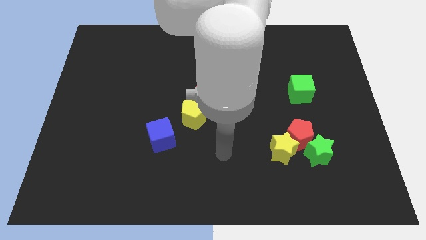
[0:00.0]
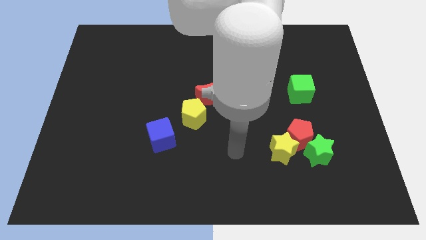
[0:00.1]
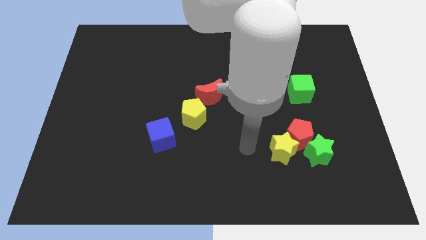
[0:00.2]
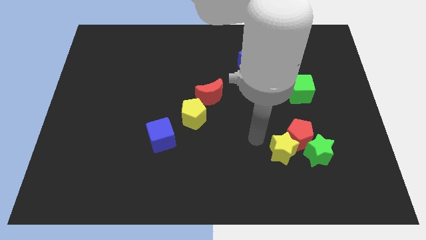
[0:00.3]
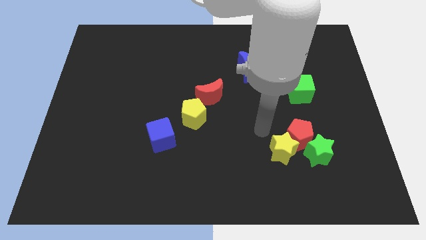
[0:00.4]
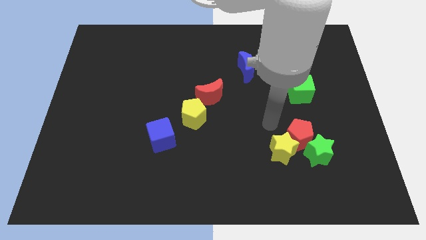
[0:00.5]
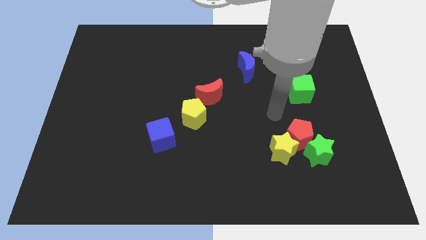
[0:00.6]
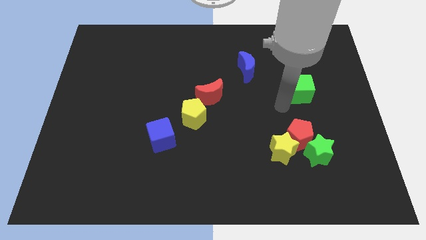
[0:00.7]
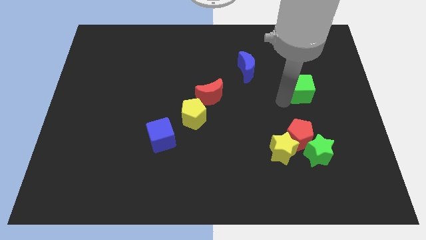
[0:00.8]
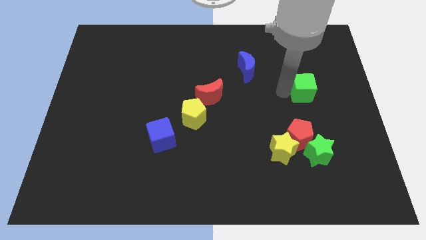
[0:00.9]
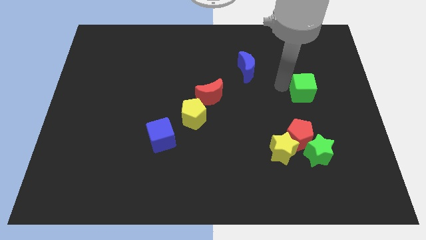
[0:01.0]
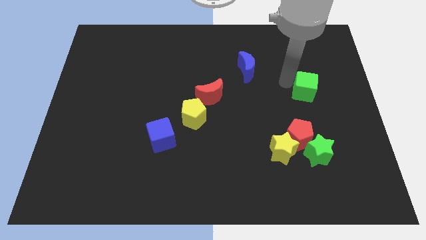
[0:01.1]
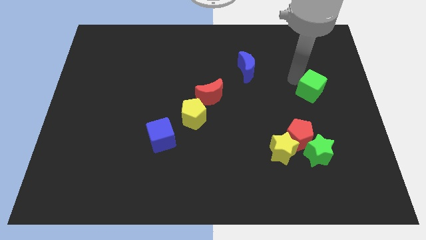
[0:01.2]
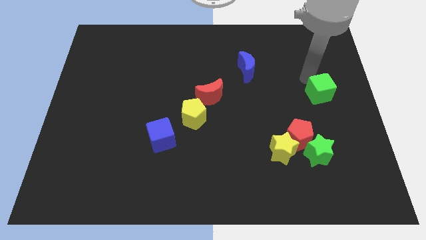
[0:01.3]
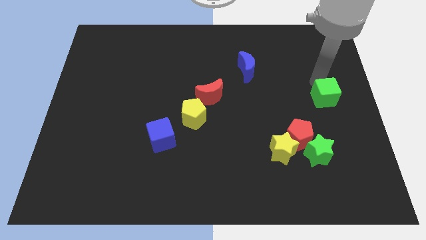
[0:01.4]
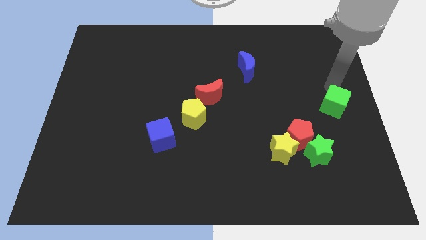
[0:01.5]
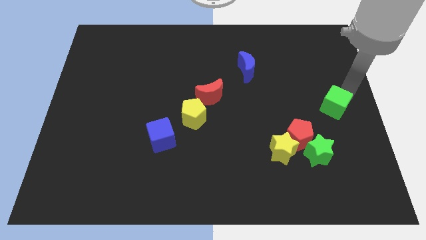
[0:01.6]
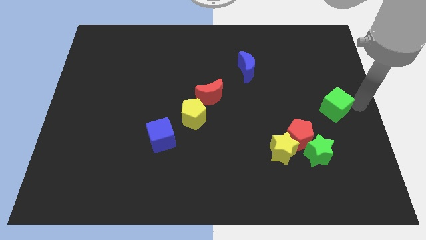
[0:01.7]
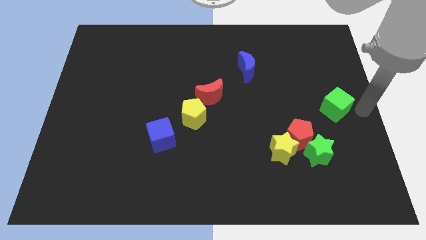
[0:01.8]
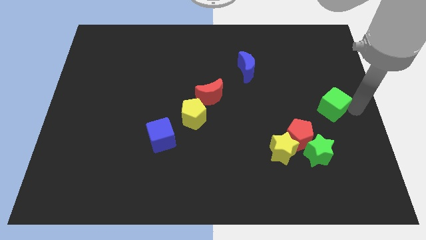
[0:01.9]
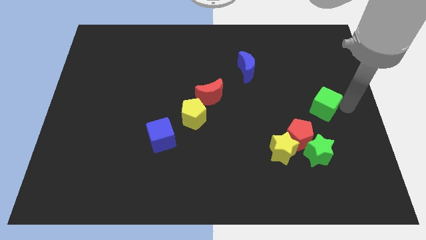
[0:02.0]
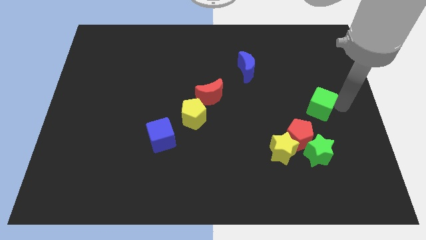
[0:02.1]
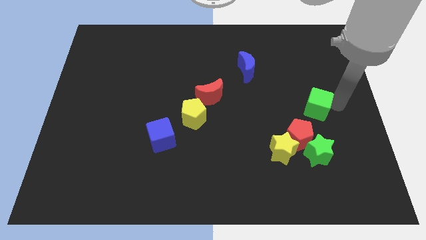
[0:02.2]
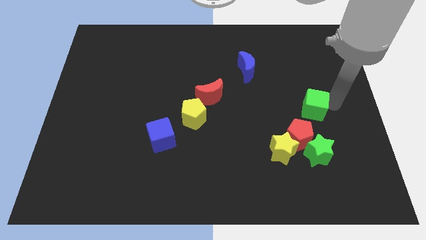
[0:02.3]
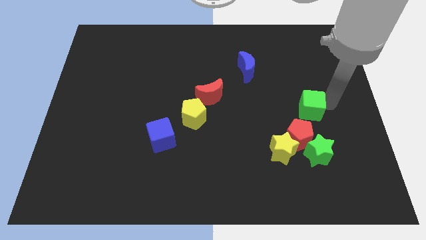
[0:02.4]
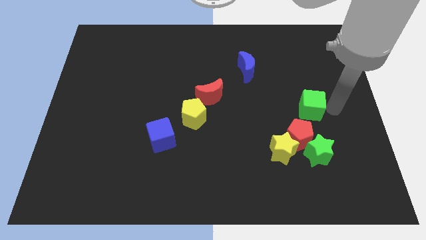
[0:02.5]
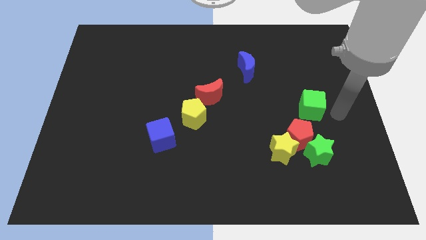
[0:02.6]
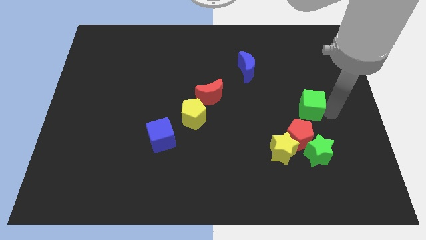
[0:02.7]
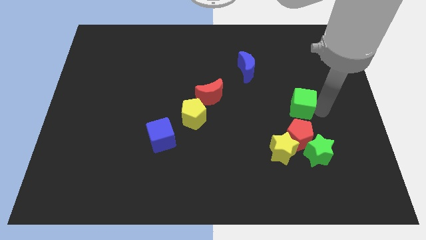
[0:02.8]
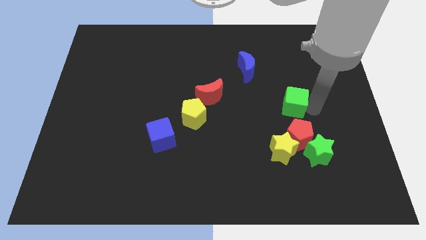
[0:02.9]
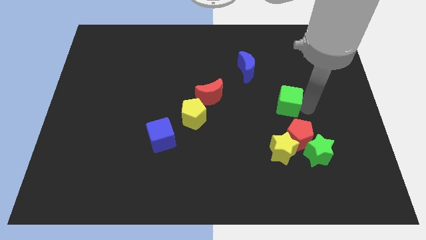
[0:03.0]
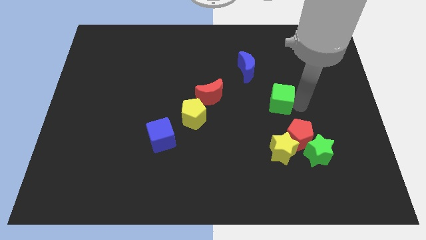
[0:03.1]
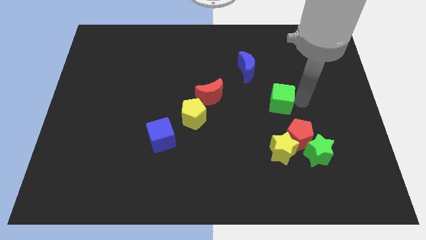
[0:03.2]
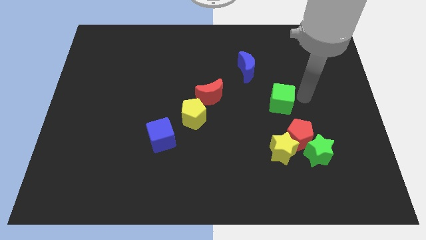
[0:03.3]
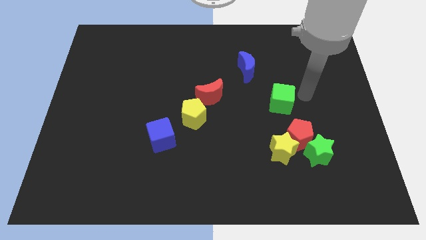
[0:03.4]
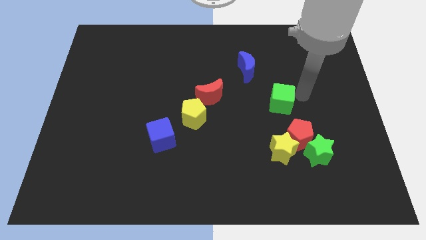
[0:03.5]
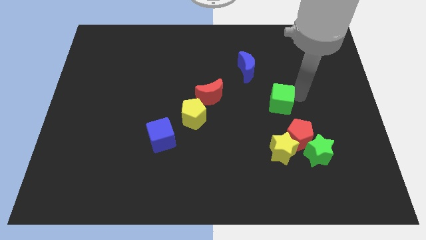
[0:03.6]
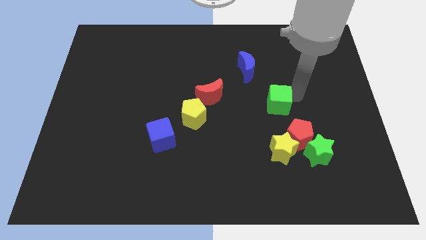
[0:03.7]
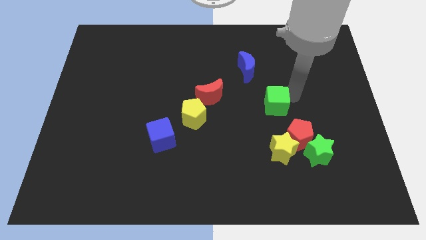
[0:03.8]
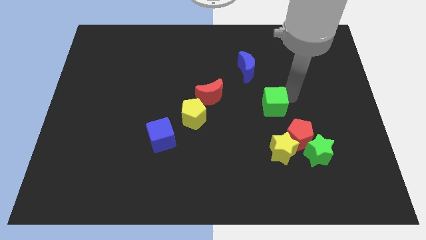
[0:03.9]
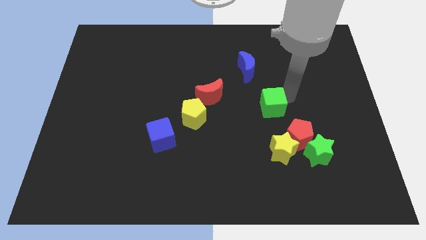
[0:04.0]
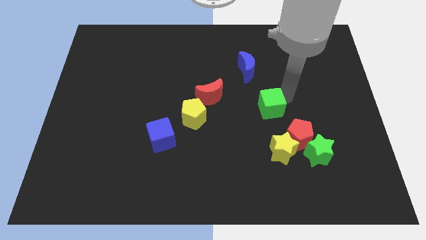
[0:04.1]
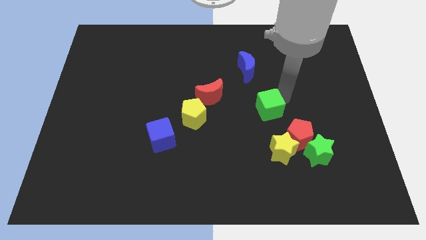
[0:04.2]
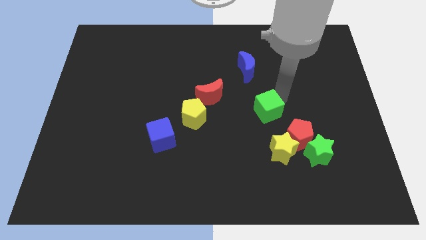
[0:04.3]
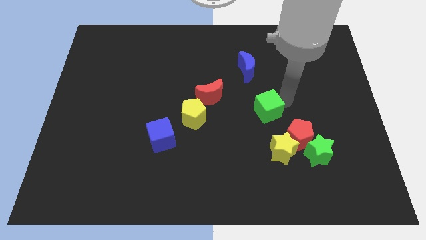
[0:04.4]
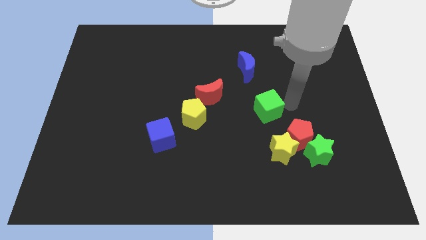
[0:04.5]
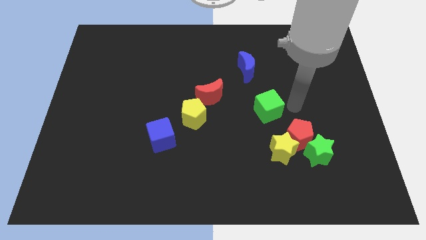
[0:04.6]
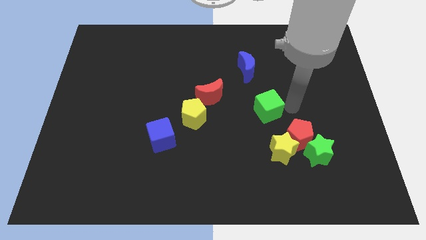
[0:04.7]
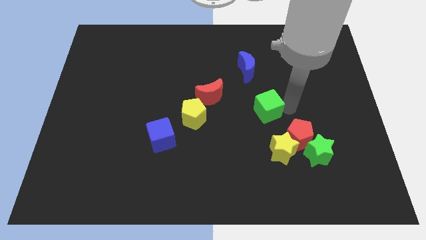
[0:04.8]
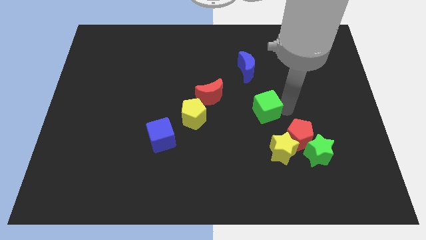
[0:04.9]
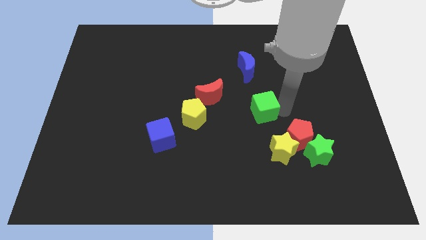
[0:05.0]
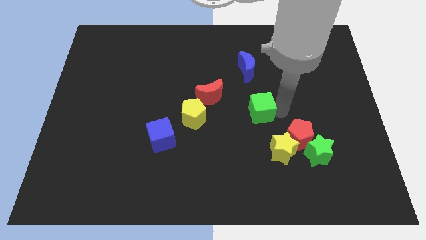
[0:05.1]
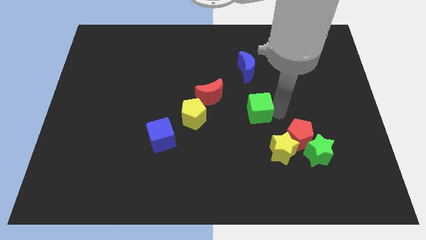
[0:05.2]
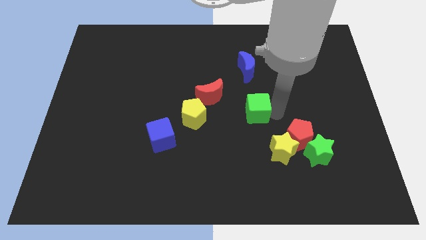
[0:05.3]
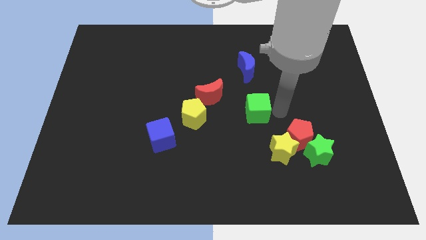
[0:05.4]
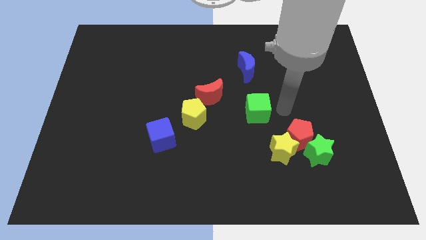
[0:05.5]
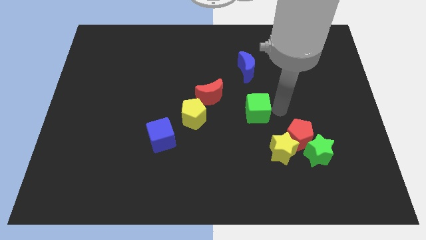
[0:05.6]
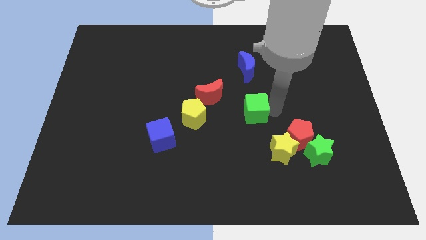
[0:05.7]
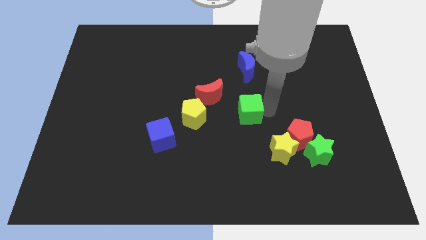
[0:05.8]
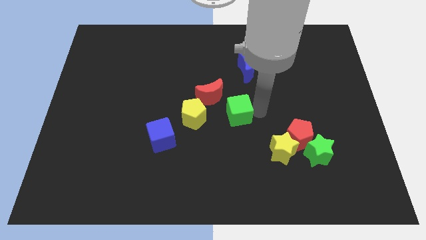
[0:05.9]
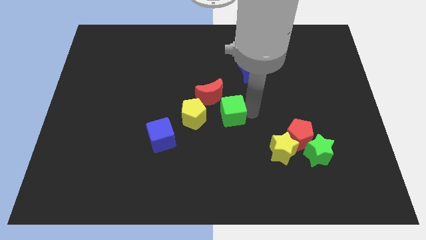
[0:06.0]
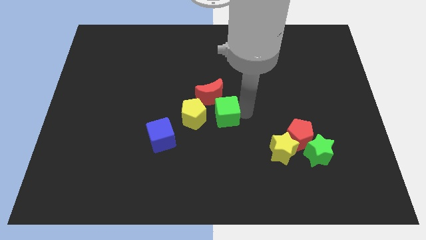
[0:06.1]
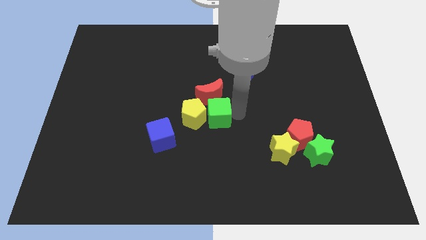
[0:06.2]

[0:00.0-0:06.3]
put the green cube to the yellow pentagon

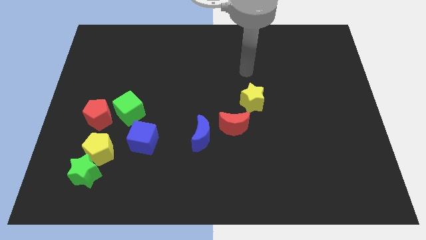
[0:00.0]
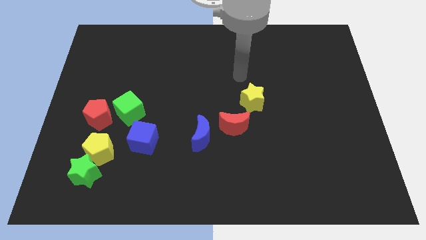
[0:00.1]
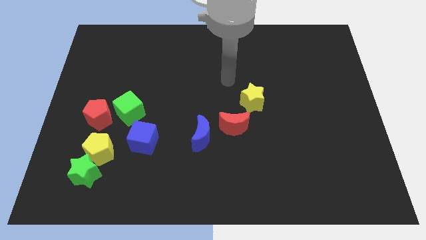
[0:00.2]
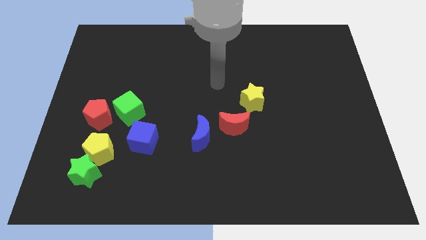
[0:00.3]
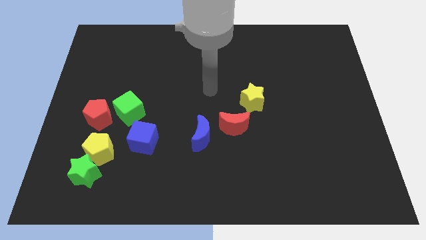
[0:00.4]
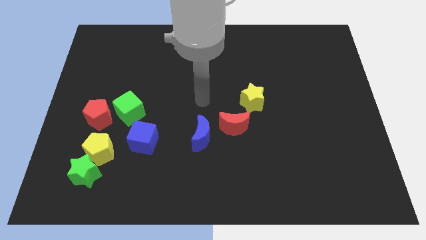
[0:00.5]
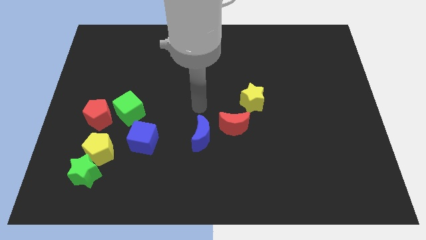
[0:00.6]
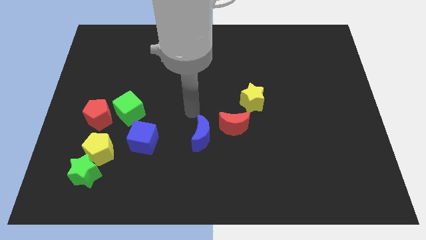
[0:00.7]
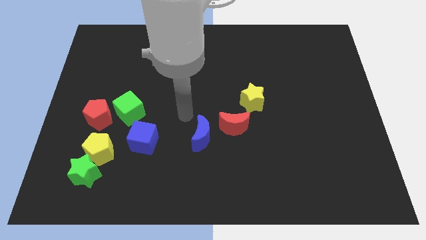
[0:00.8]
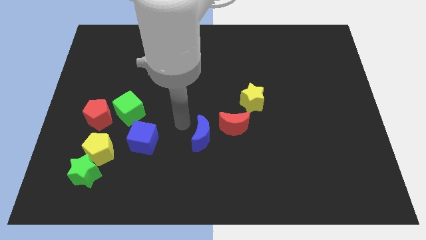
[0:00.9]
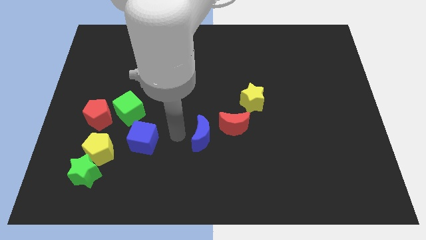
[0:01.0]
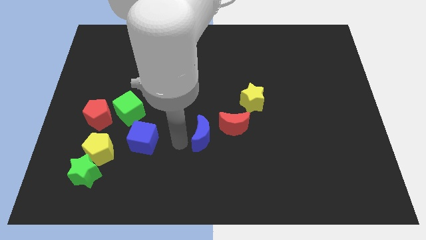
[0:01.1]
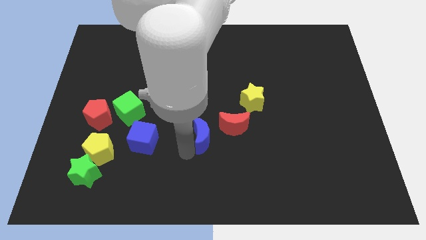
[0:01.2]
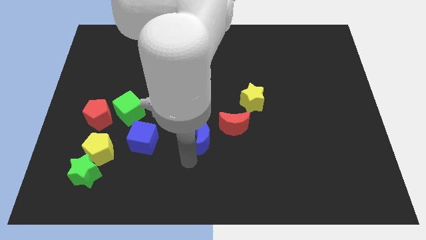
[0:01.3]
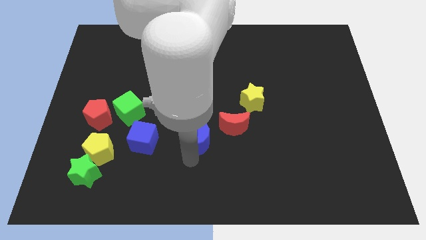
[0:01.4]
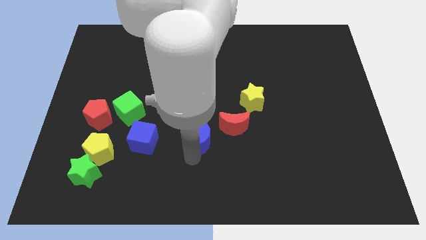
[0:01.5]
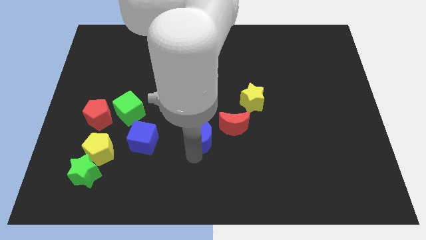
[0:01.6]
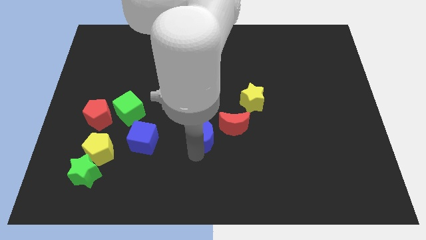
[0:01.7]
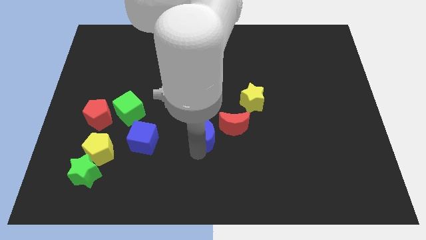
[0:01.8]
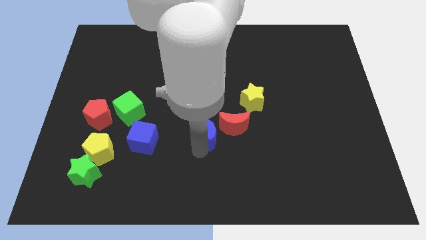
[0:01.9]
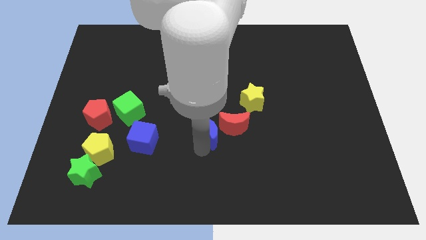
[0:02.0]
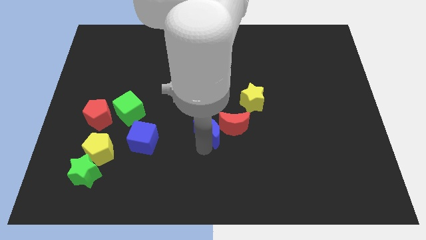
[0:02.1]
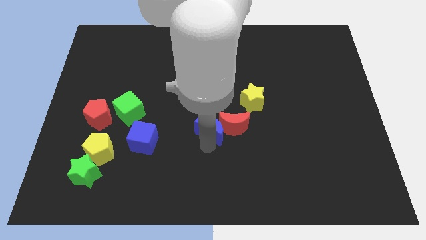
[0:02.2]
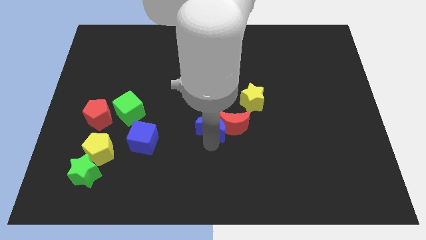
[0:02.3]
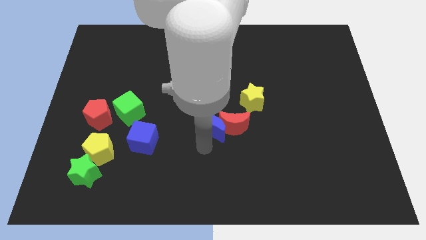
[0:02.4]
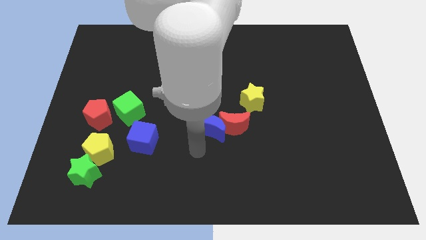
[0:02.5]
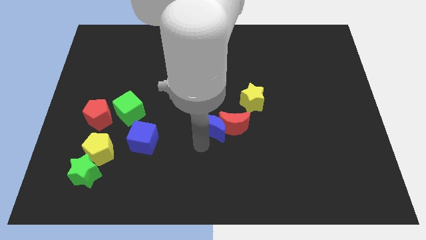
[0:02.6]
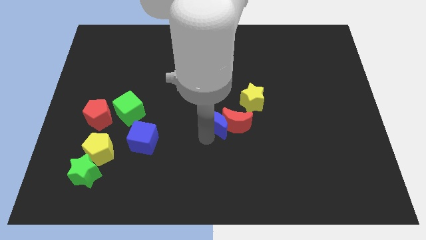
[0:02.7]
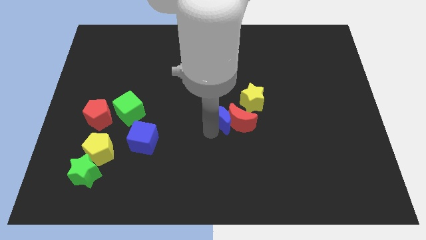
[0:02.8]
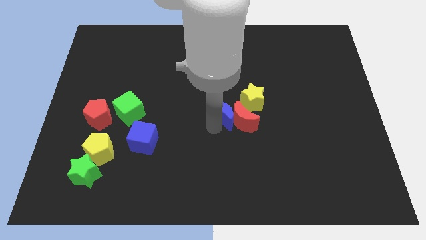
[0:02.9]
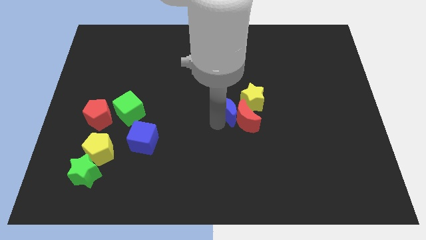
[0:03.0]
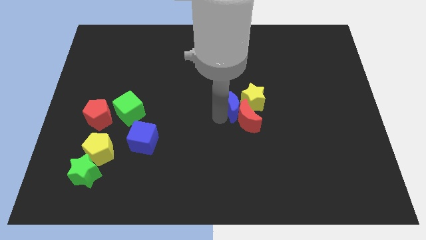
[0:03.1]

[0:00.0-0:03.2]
move the blue moon to the yellow star
